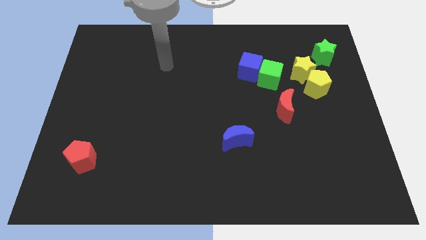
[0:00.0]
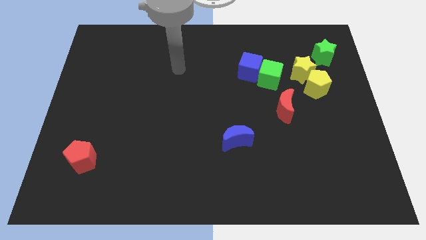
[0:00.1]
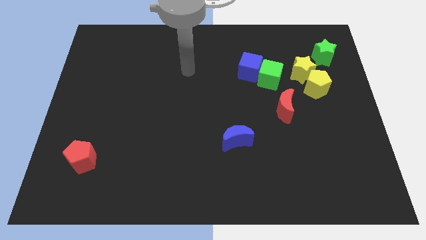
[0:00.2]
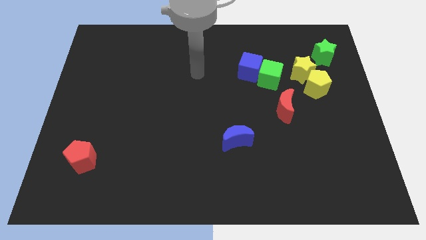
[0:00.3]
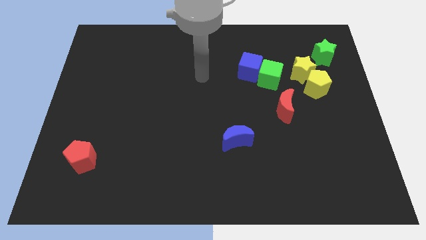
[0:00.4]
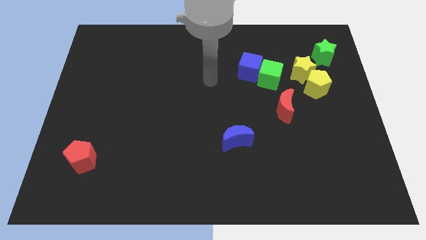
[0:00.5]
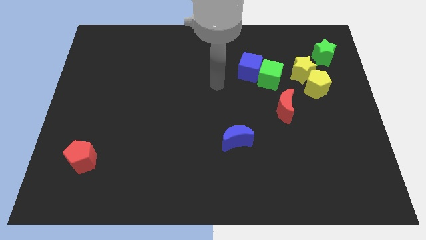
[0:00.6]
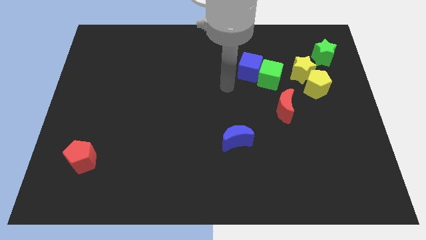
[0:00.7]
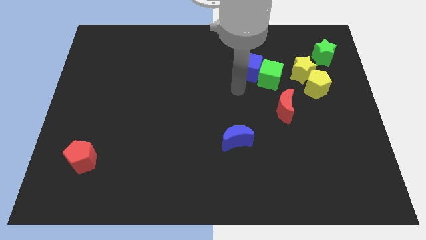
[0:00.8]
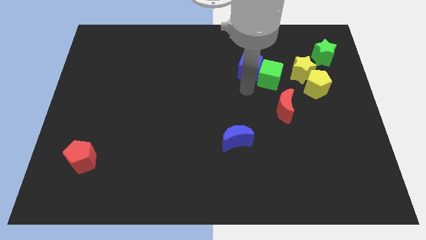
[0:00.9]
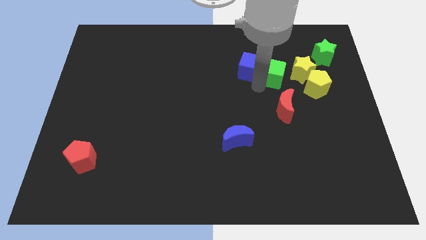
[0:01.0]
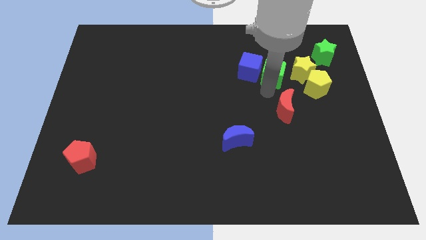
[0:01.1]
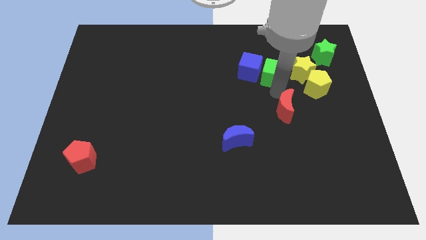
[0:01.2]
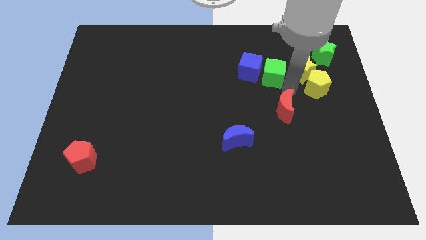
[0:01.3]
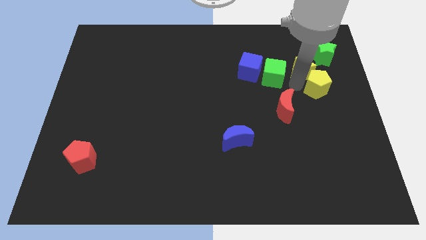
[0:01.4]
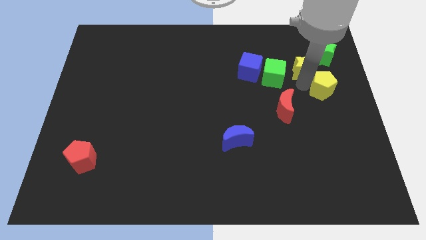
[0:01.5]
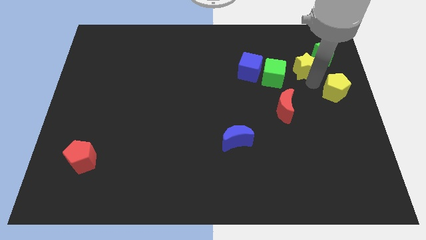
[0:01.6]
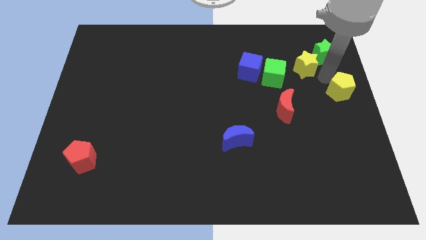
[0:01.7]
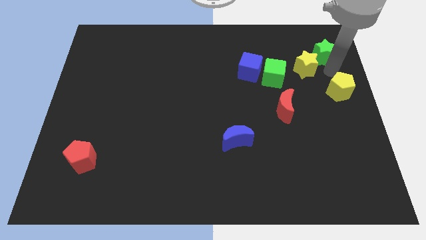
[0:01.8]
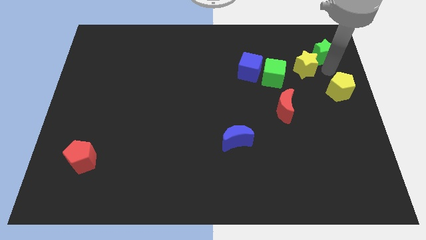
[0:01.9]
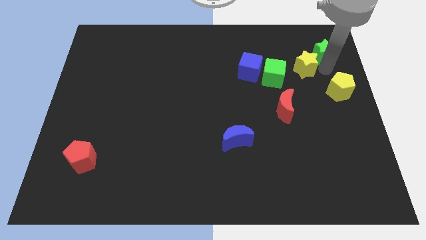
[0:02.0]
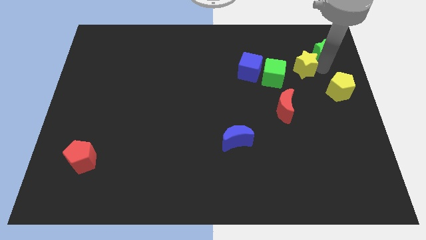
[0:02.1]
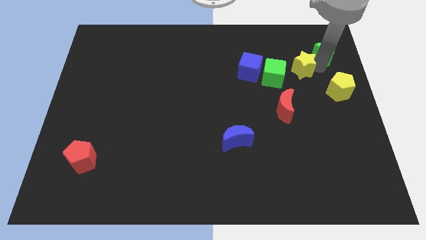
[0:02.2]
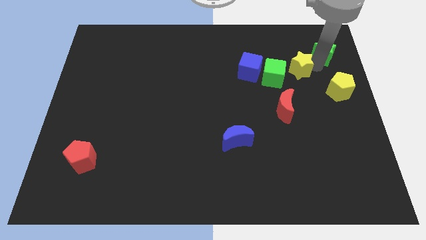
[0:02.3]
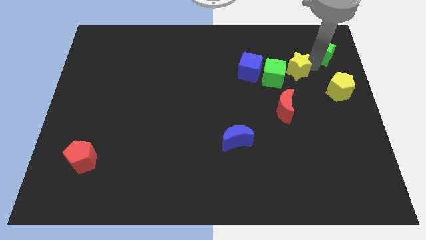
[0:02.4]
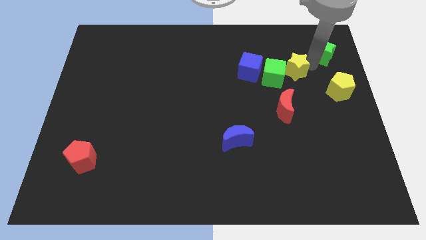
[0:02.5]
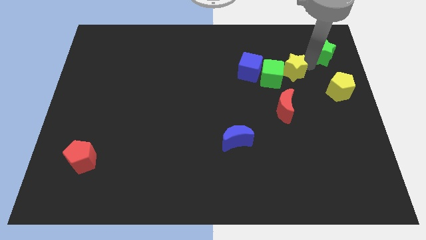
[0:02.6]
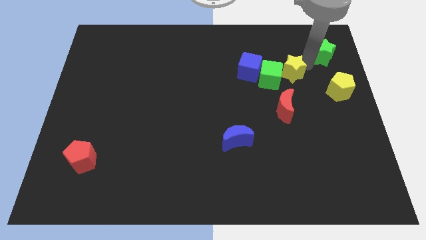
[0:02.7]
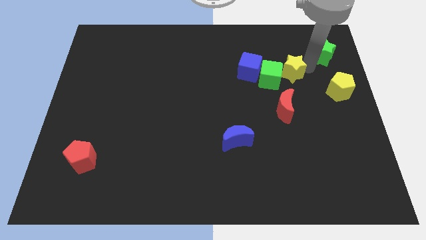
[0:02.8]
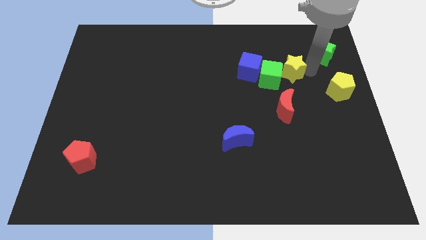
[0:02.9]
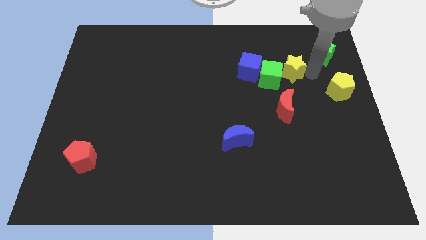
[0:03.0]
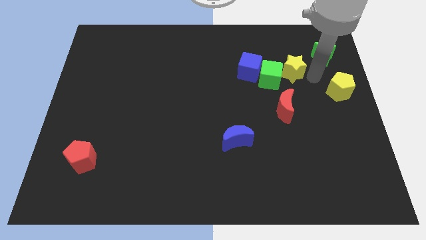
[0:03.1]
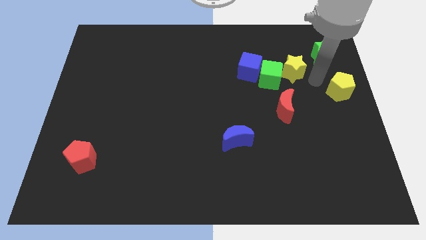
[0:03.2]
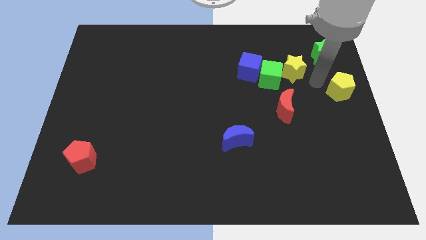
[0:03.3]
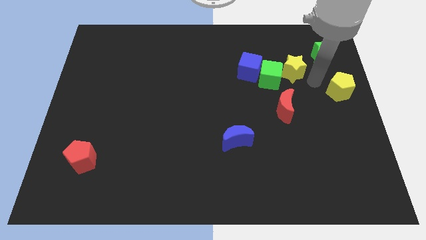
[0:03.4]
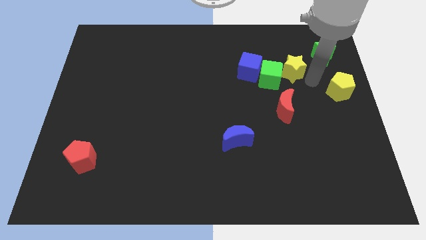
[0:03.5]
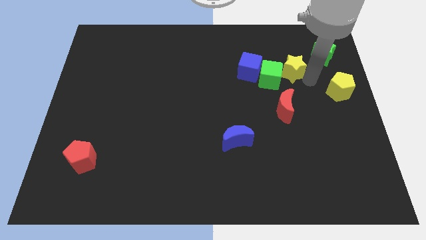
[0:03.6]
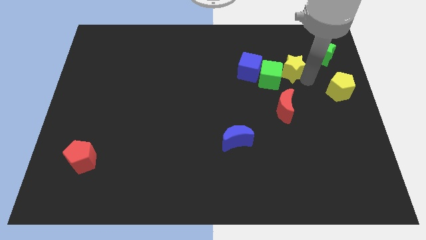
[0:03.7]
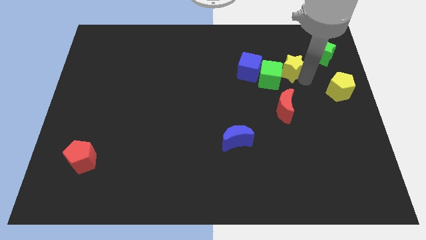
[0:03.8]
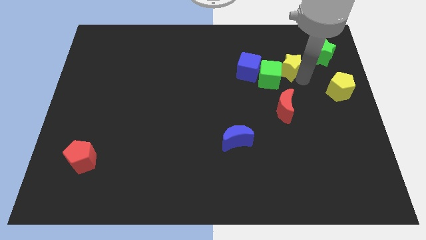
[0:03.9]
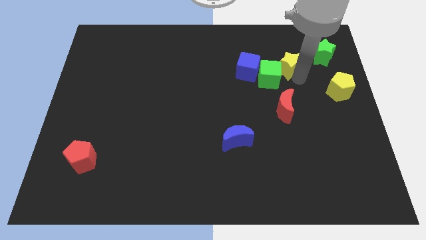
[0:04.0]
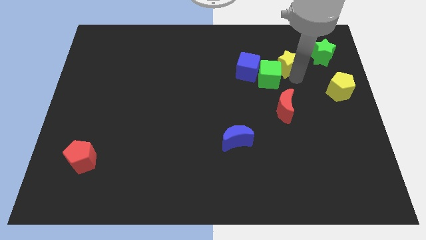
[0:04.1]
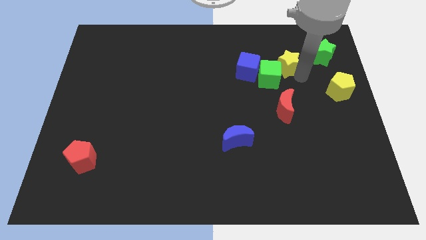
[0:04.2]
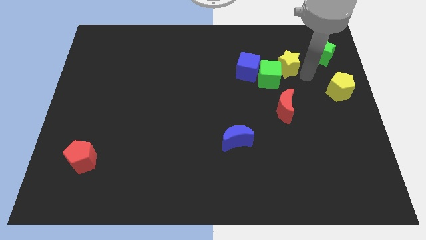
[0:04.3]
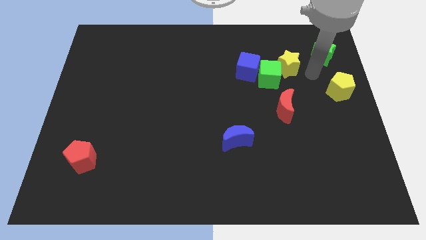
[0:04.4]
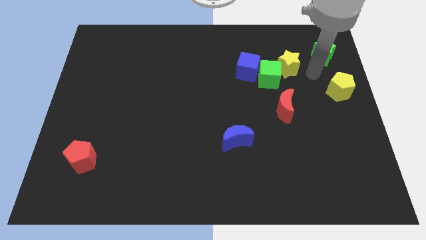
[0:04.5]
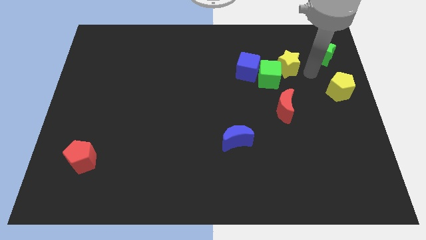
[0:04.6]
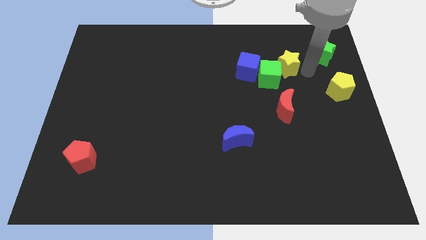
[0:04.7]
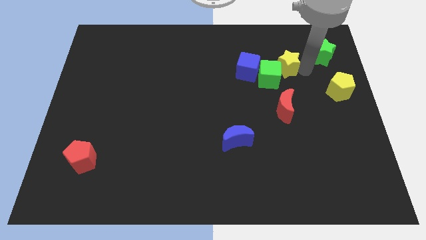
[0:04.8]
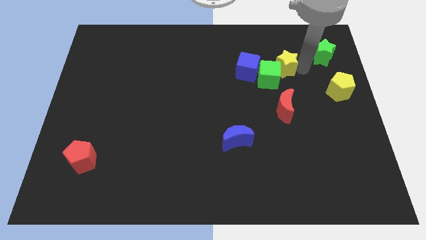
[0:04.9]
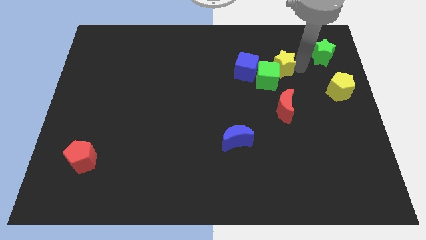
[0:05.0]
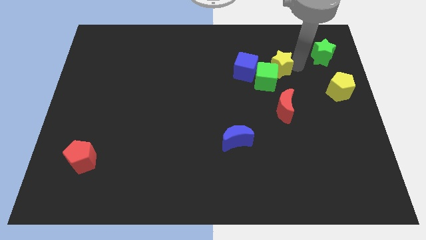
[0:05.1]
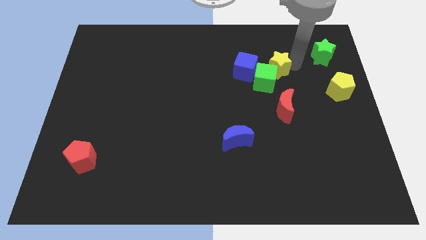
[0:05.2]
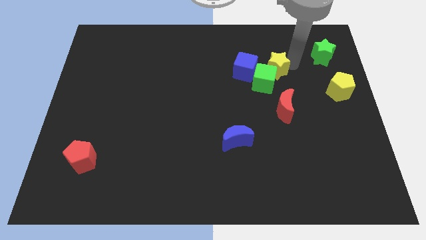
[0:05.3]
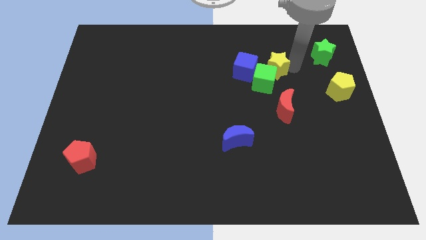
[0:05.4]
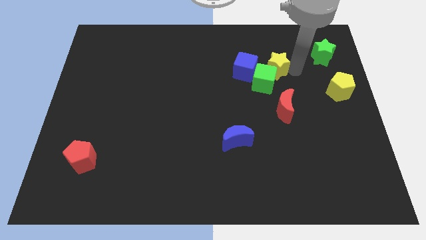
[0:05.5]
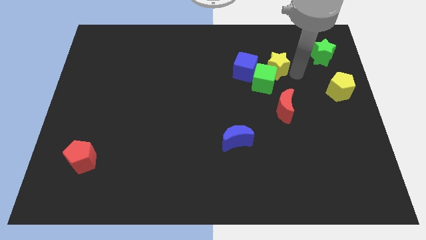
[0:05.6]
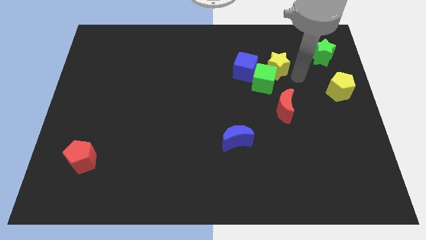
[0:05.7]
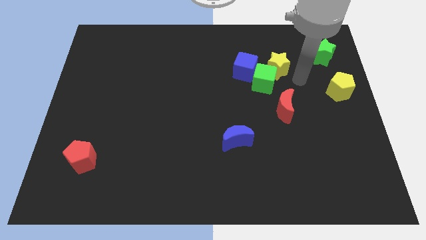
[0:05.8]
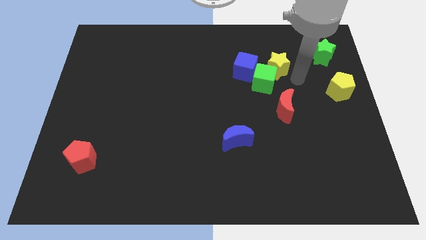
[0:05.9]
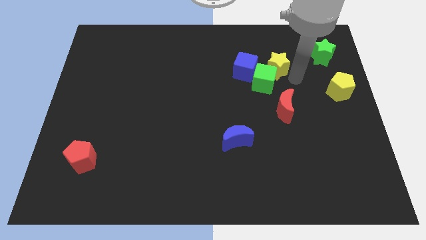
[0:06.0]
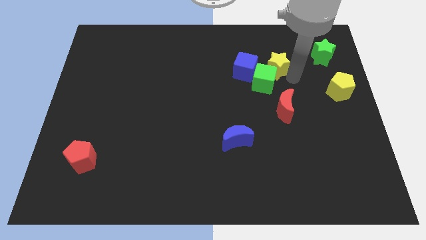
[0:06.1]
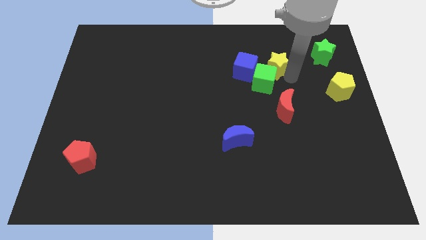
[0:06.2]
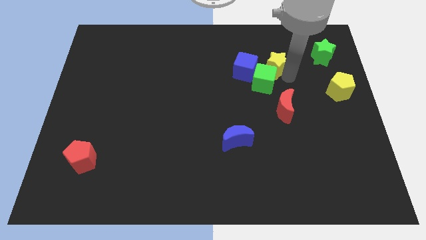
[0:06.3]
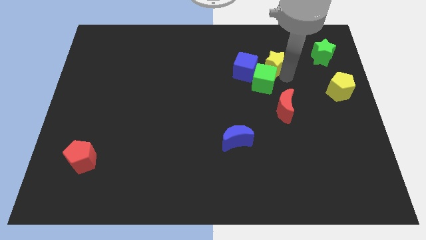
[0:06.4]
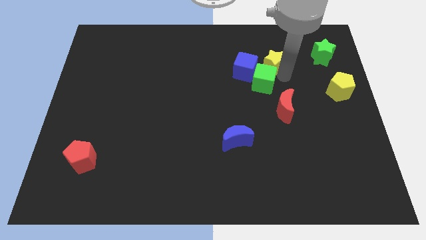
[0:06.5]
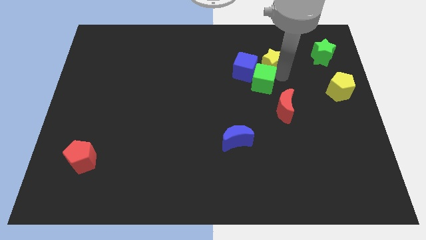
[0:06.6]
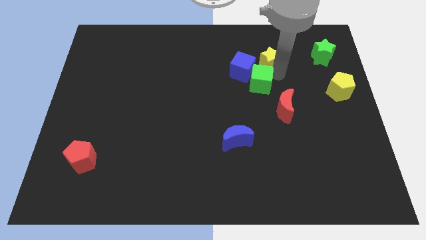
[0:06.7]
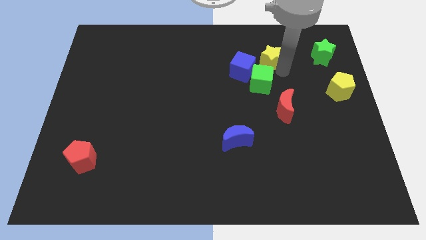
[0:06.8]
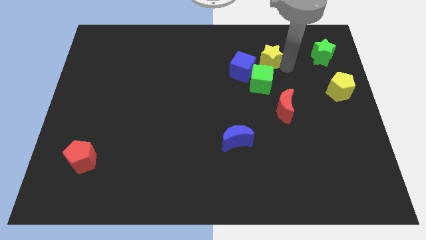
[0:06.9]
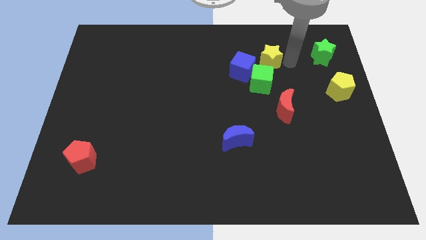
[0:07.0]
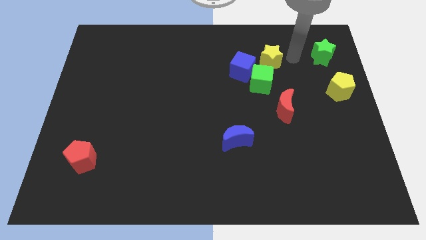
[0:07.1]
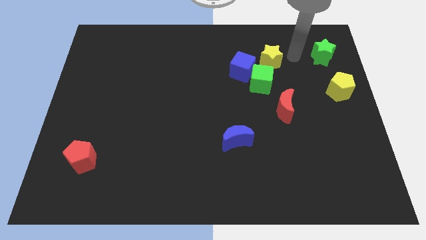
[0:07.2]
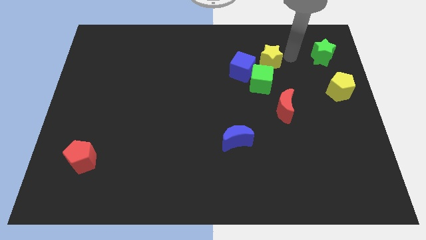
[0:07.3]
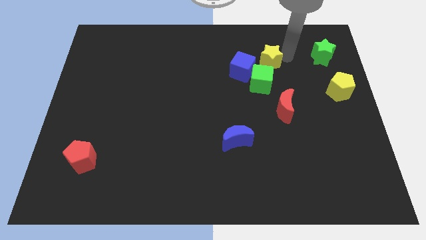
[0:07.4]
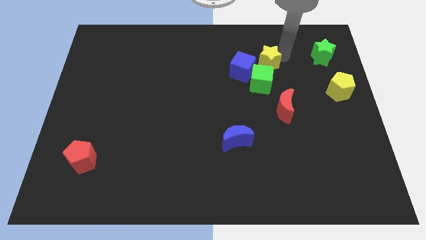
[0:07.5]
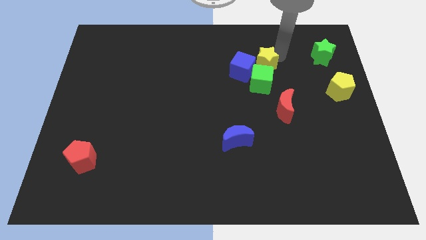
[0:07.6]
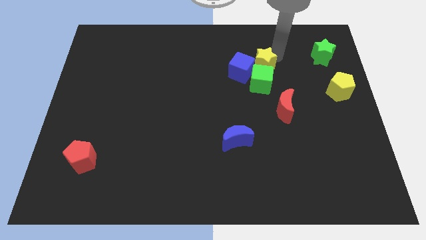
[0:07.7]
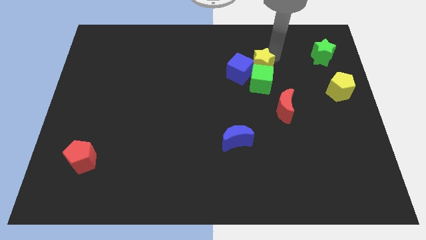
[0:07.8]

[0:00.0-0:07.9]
push the yellow star to the top left side of the green cube
